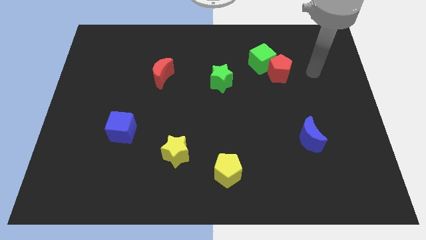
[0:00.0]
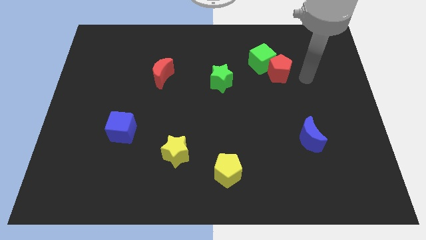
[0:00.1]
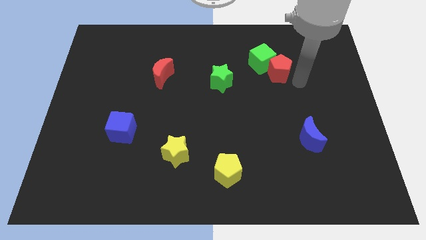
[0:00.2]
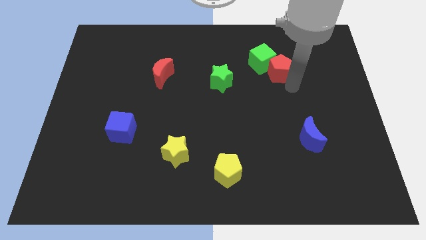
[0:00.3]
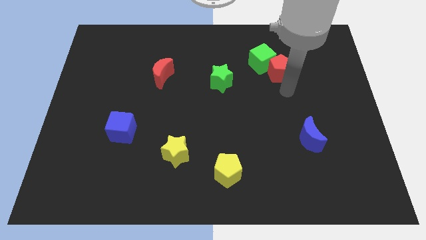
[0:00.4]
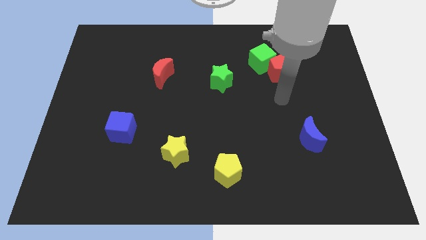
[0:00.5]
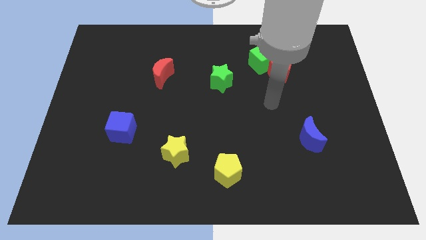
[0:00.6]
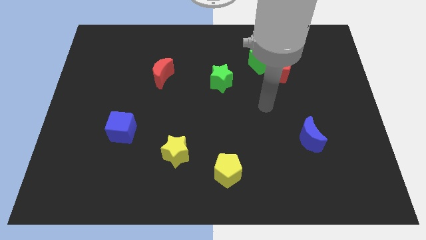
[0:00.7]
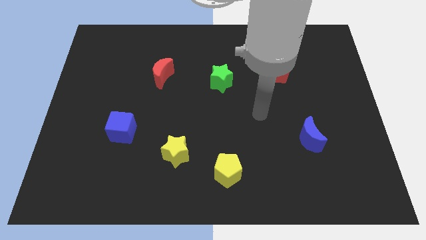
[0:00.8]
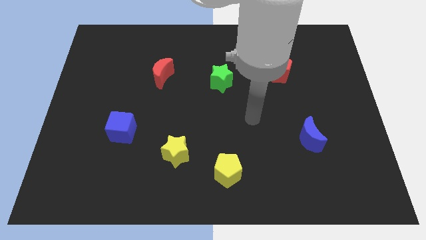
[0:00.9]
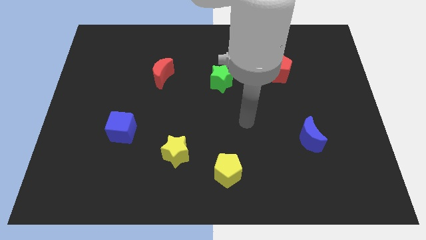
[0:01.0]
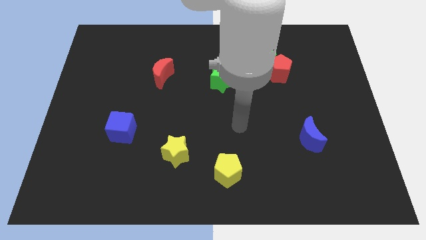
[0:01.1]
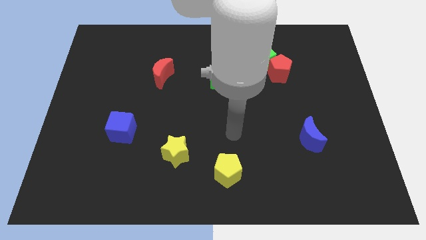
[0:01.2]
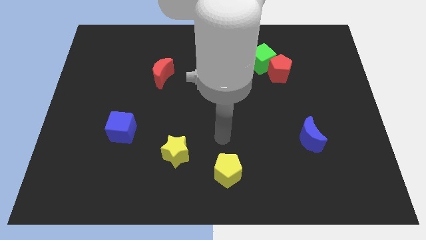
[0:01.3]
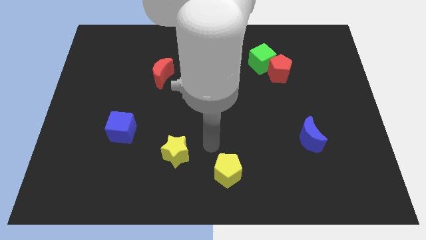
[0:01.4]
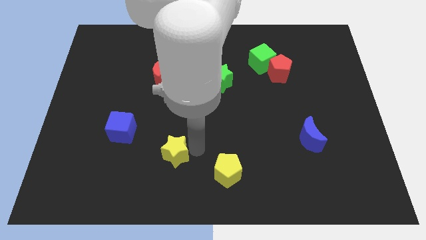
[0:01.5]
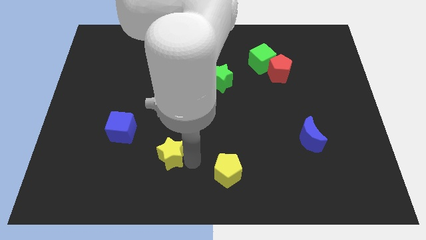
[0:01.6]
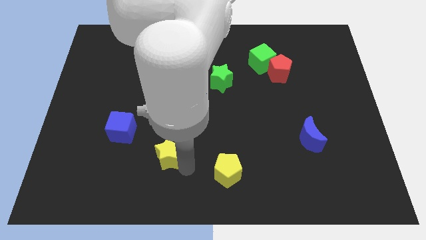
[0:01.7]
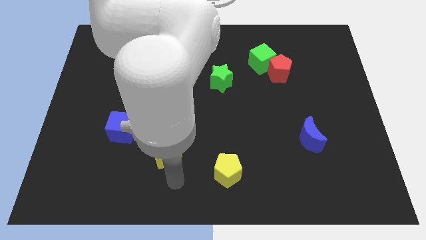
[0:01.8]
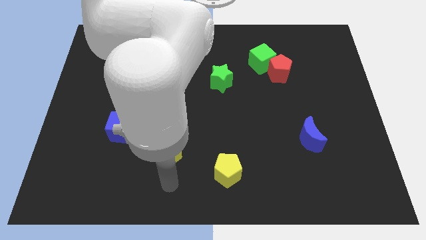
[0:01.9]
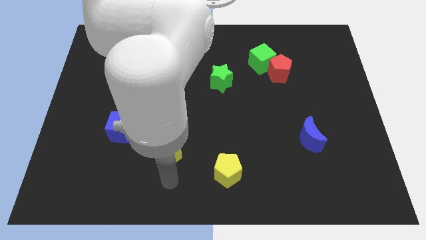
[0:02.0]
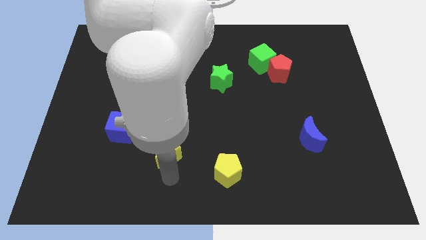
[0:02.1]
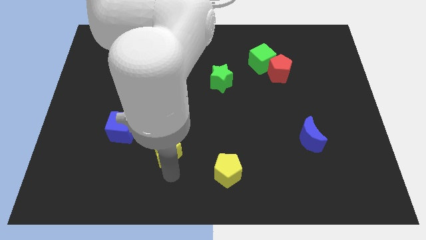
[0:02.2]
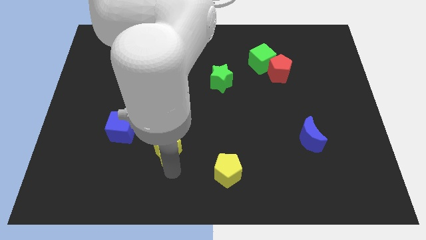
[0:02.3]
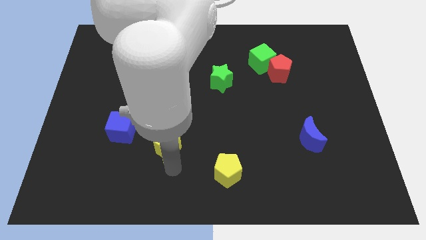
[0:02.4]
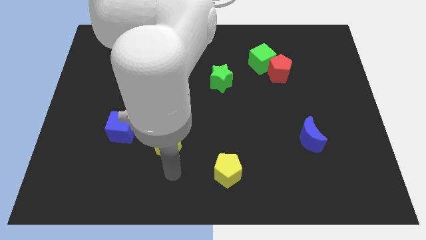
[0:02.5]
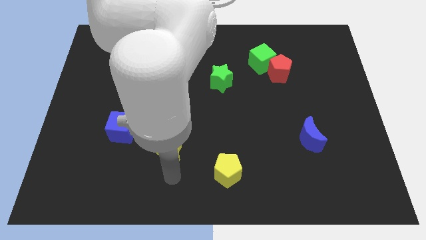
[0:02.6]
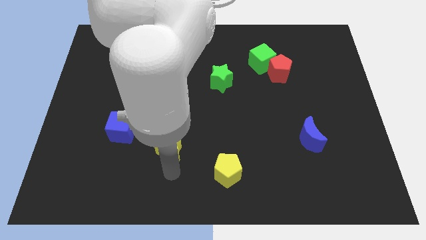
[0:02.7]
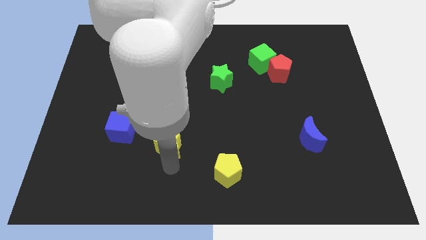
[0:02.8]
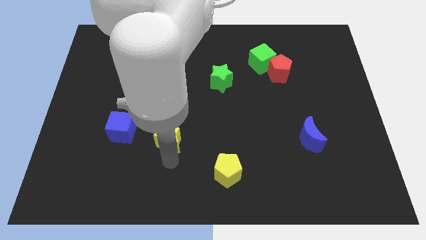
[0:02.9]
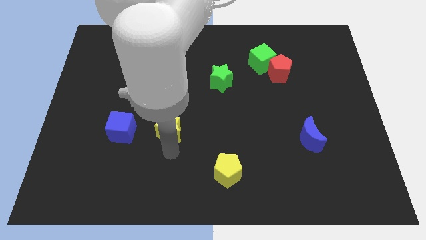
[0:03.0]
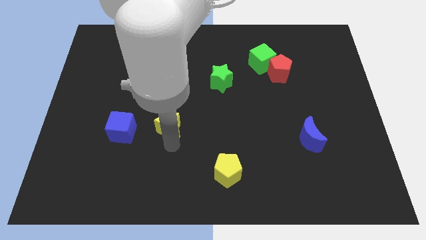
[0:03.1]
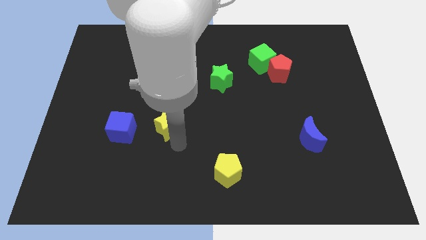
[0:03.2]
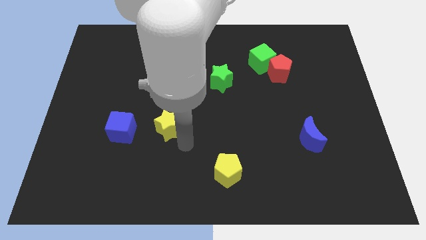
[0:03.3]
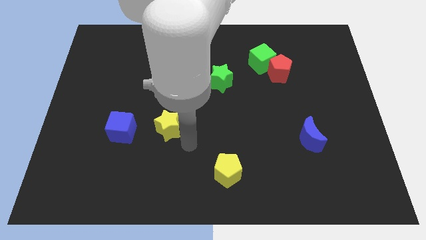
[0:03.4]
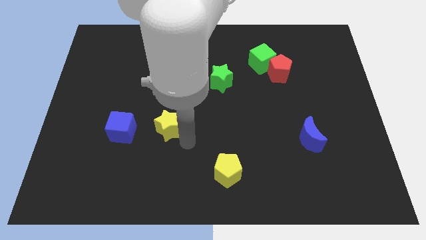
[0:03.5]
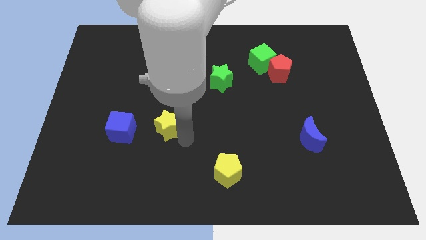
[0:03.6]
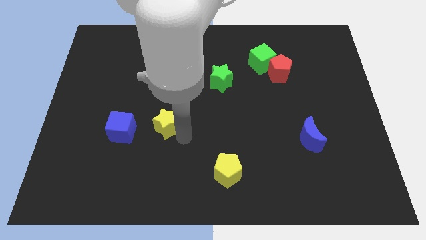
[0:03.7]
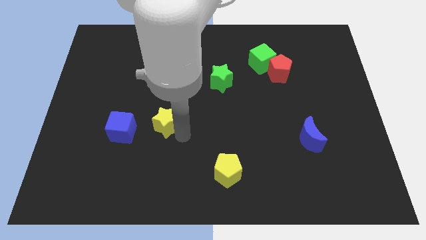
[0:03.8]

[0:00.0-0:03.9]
move the yellow star up and to the left a little

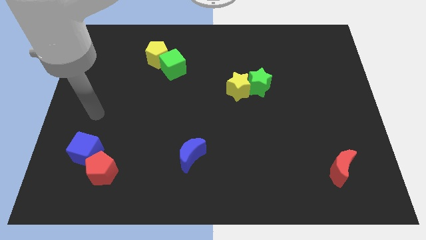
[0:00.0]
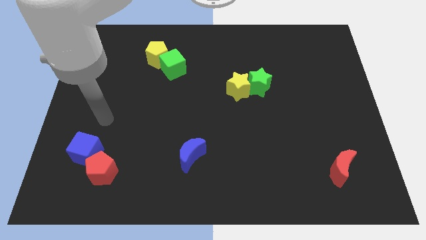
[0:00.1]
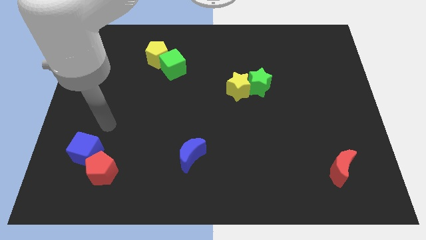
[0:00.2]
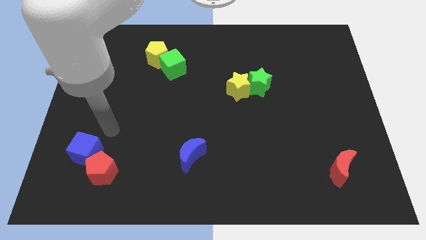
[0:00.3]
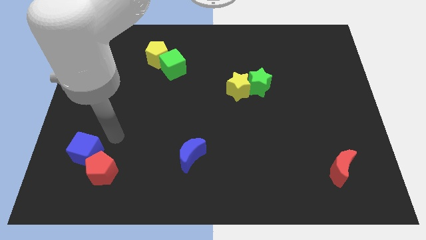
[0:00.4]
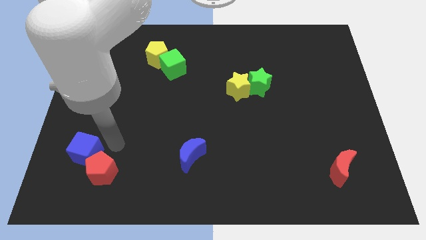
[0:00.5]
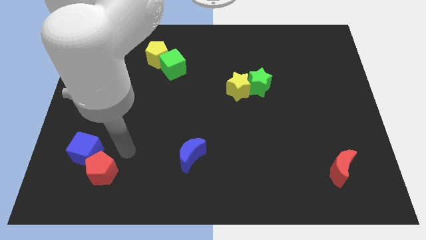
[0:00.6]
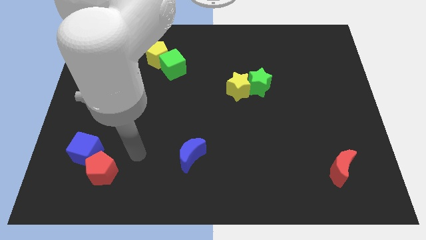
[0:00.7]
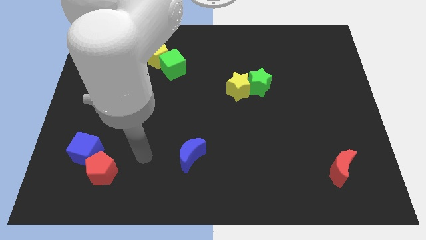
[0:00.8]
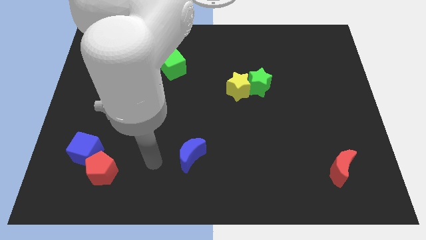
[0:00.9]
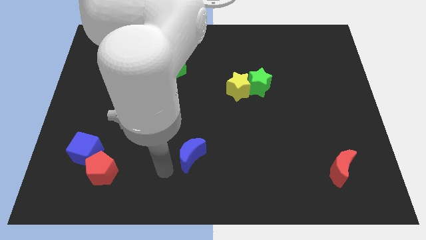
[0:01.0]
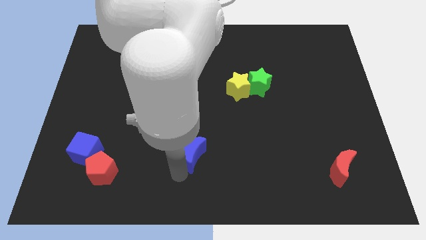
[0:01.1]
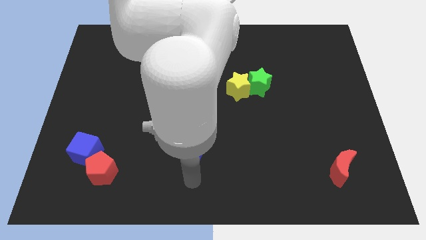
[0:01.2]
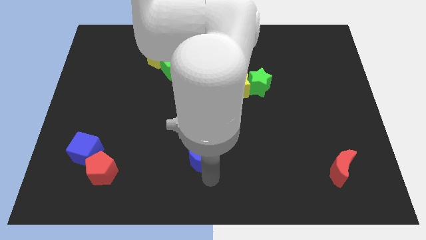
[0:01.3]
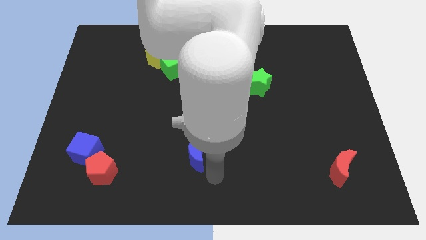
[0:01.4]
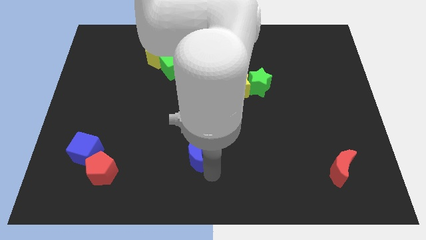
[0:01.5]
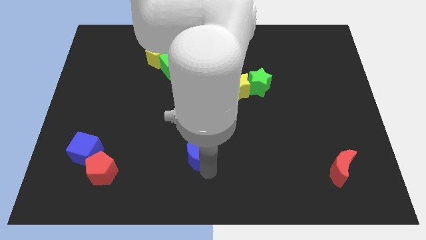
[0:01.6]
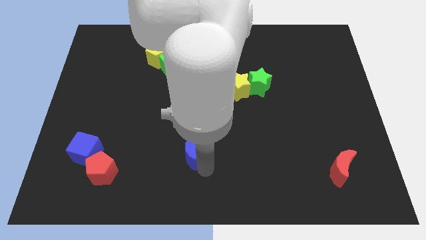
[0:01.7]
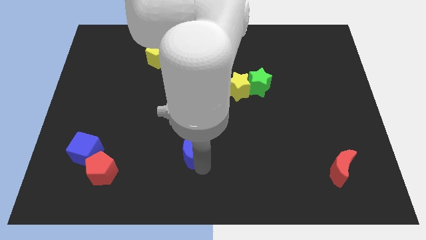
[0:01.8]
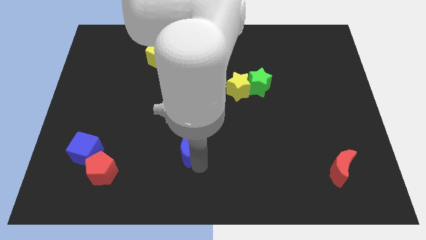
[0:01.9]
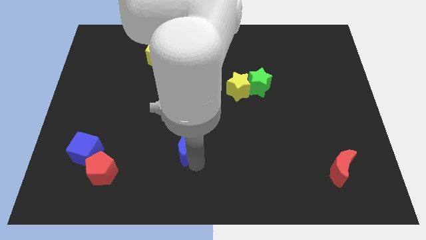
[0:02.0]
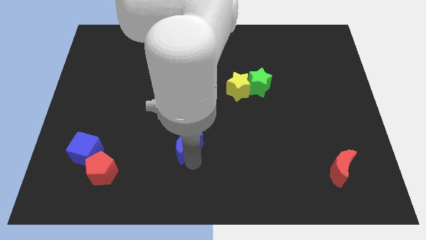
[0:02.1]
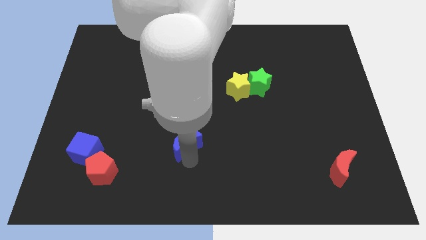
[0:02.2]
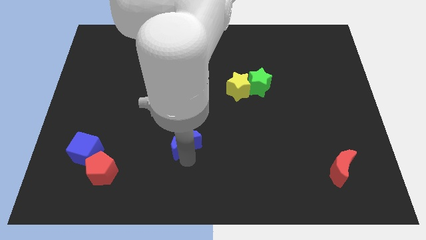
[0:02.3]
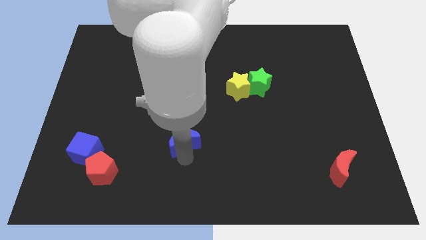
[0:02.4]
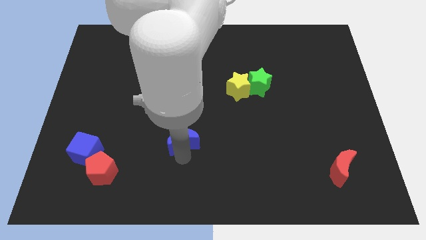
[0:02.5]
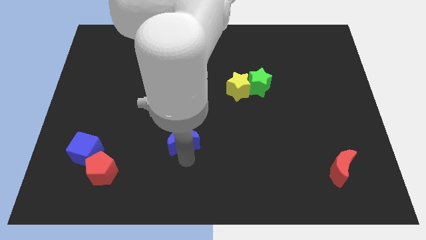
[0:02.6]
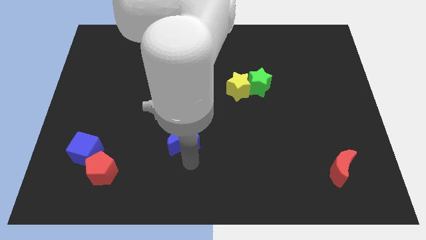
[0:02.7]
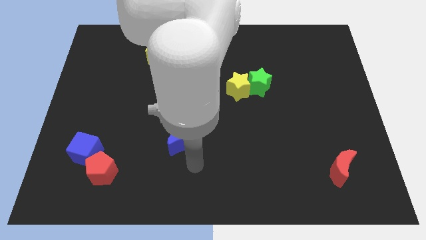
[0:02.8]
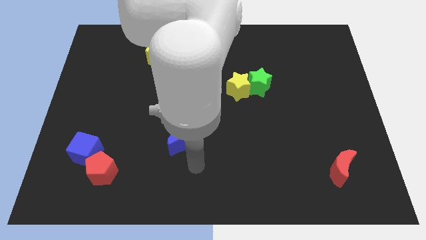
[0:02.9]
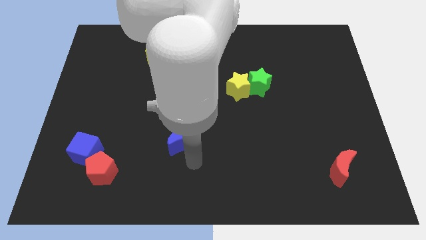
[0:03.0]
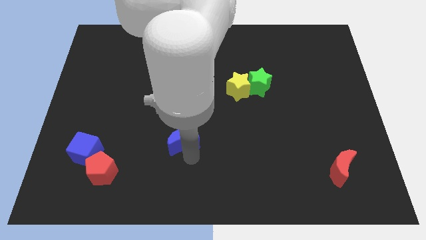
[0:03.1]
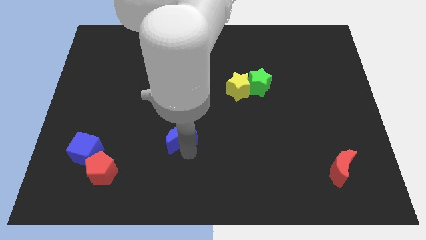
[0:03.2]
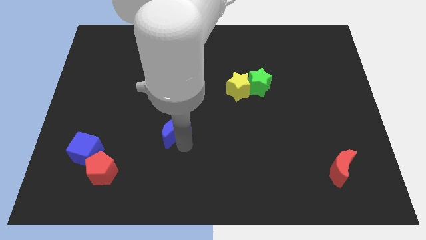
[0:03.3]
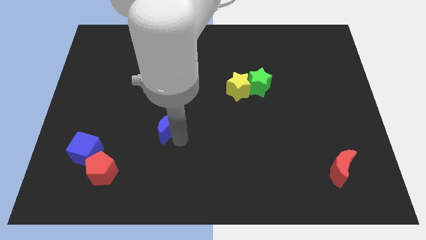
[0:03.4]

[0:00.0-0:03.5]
slightly slide the blue moon up and left diagonally

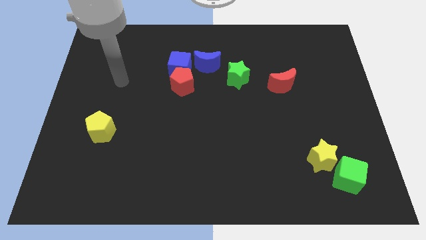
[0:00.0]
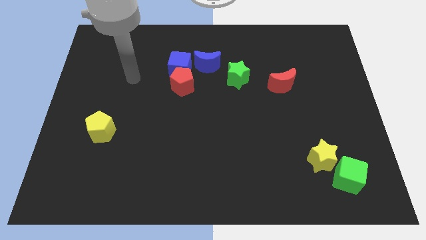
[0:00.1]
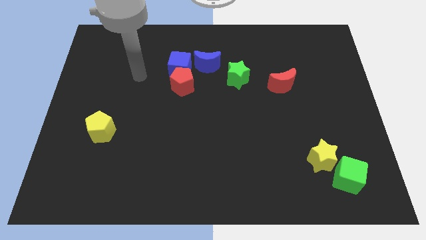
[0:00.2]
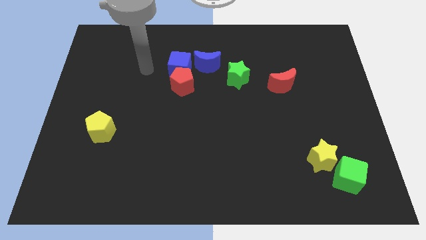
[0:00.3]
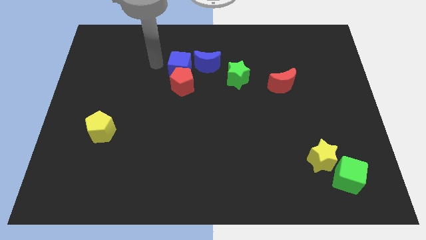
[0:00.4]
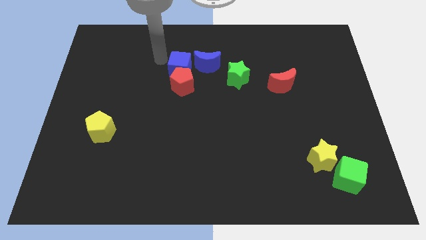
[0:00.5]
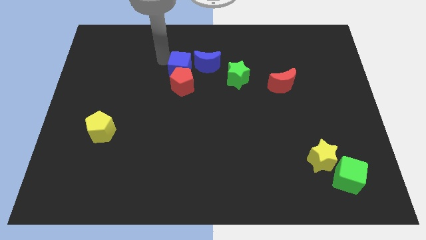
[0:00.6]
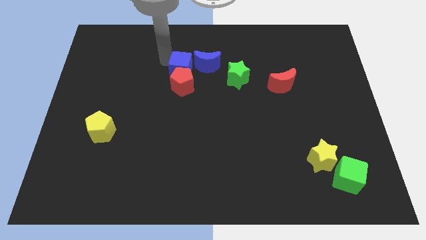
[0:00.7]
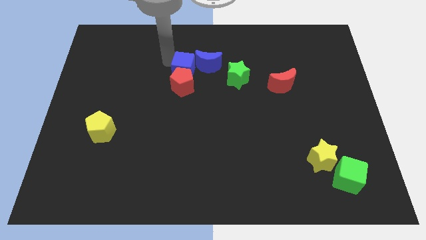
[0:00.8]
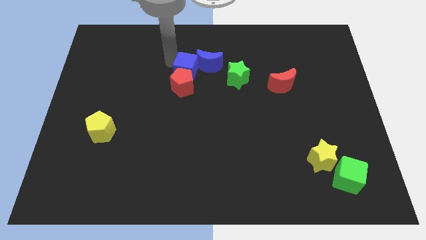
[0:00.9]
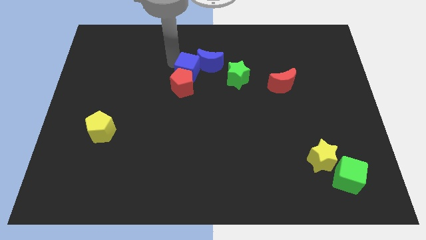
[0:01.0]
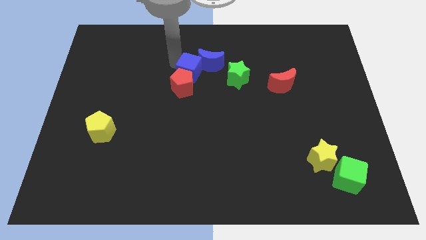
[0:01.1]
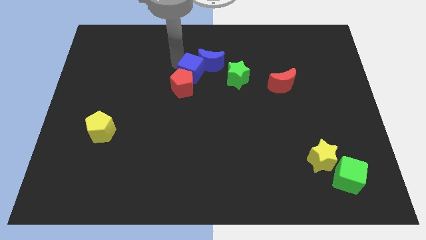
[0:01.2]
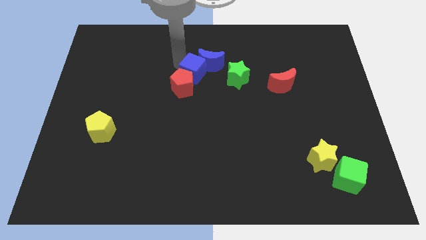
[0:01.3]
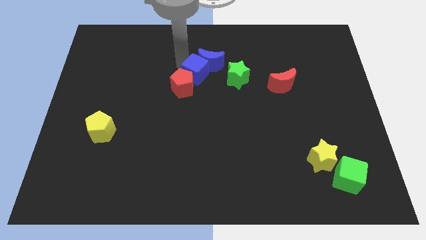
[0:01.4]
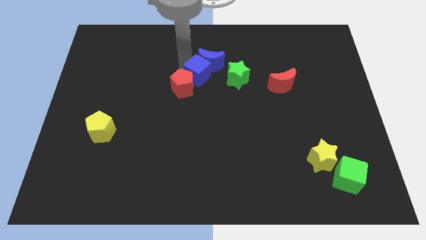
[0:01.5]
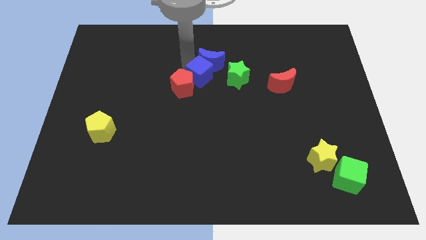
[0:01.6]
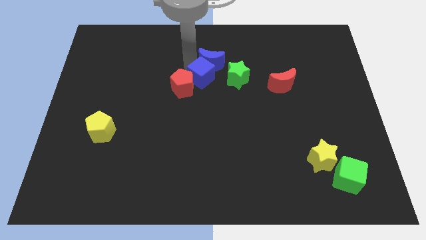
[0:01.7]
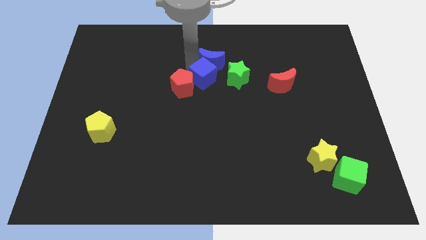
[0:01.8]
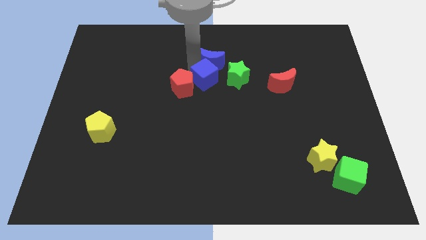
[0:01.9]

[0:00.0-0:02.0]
slide the blue cube somewhat downwards and to the right diagonally
